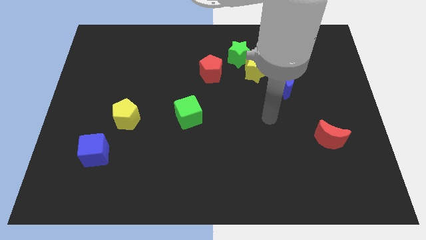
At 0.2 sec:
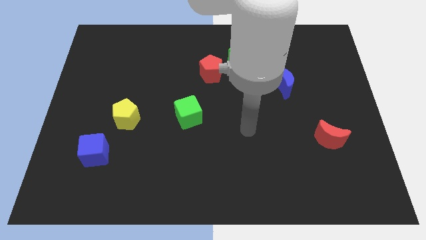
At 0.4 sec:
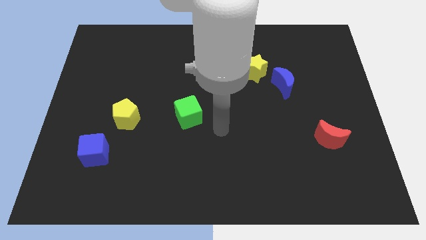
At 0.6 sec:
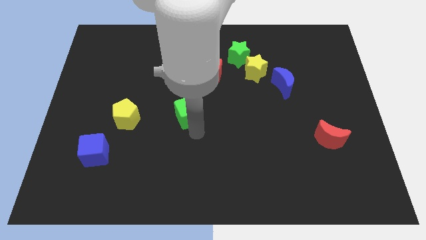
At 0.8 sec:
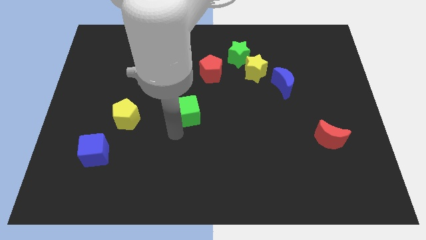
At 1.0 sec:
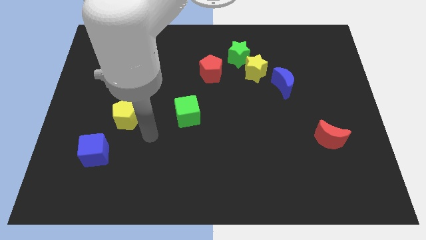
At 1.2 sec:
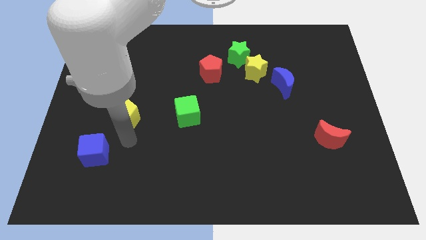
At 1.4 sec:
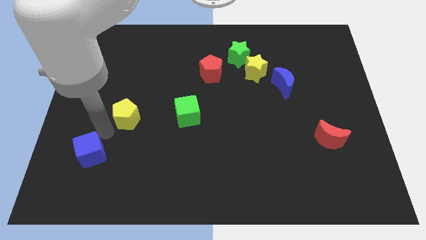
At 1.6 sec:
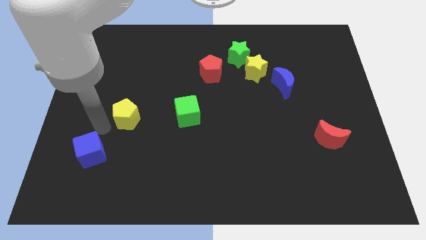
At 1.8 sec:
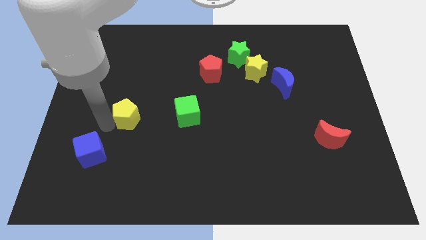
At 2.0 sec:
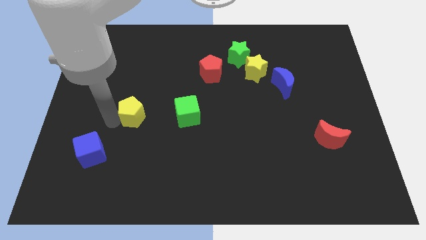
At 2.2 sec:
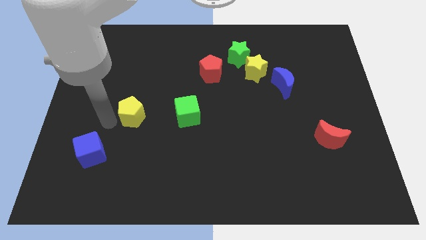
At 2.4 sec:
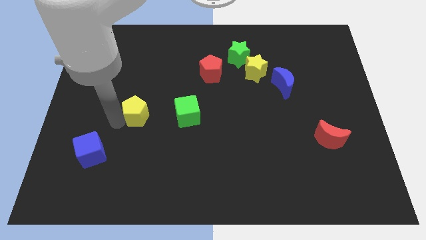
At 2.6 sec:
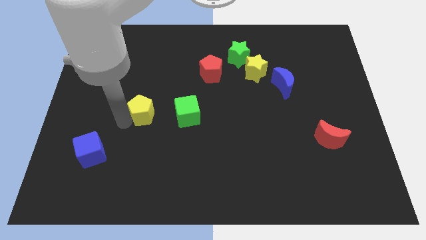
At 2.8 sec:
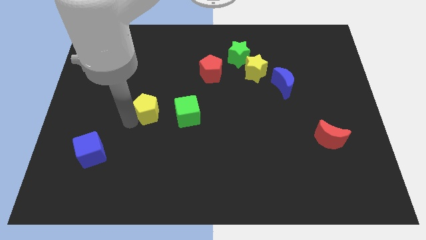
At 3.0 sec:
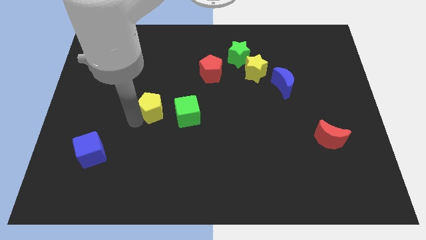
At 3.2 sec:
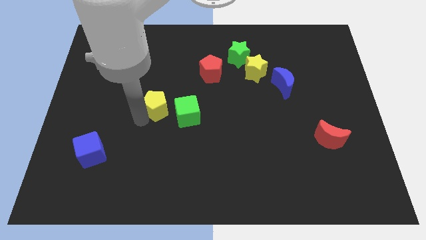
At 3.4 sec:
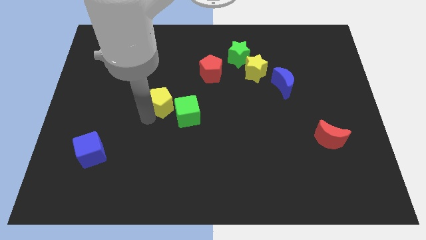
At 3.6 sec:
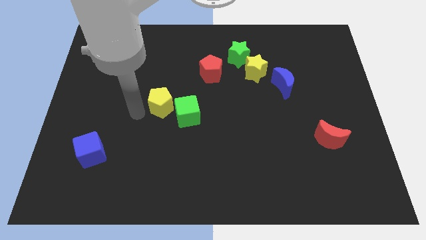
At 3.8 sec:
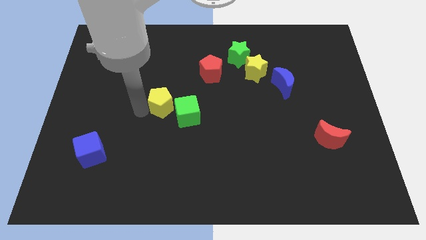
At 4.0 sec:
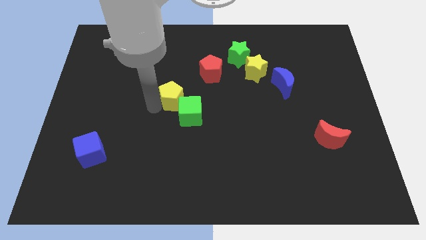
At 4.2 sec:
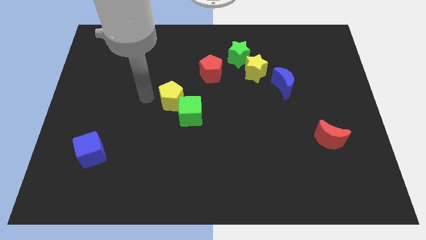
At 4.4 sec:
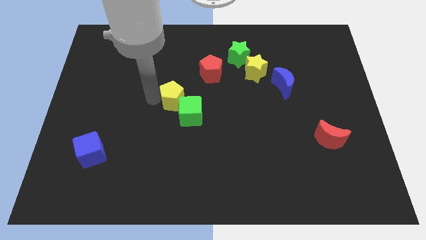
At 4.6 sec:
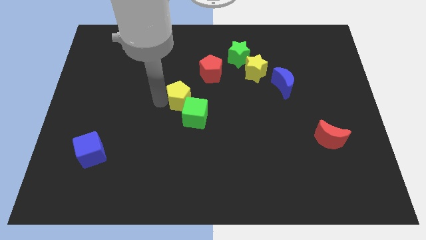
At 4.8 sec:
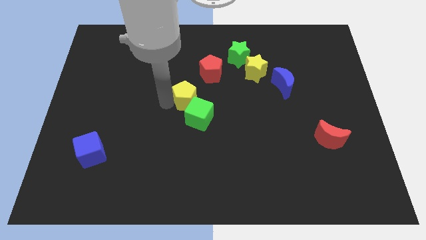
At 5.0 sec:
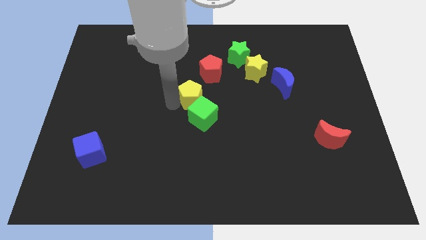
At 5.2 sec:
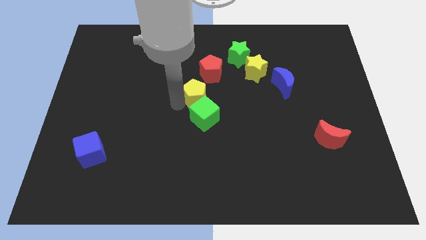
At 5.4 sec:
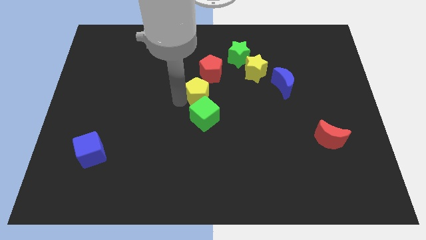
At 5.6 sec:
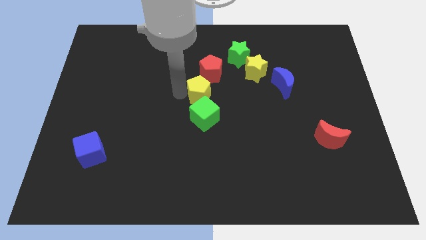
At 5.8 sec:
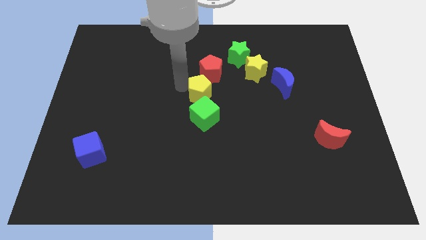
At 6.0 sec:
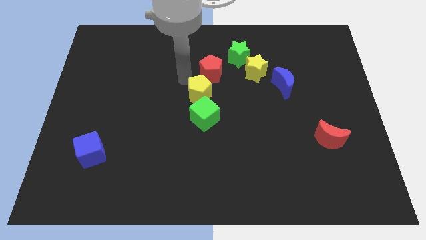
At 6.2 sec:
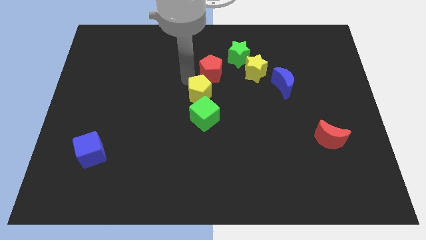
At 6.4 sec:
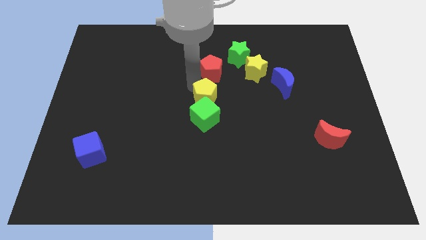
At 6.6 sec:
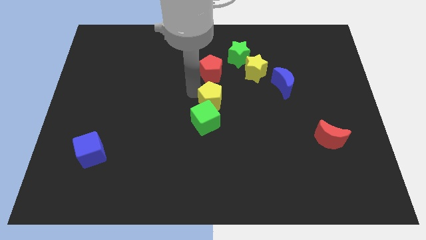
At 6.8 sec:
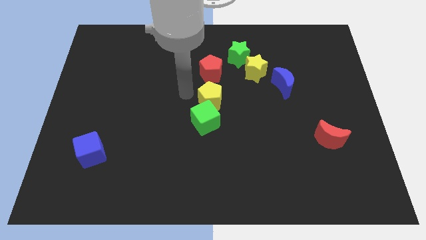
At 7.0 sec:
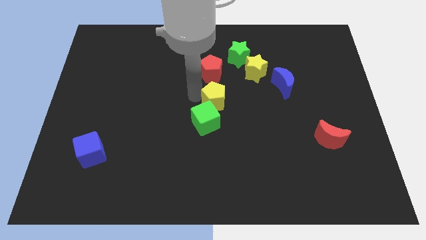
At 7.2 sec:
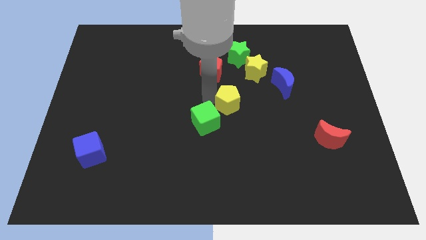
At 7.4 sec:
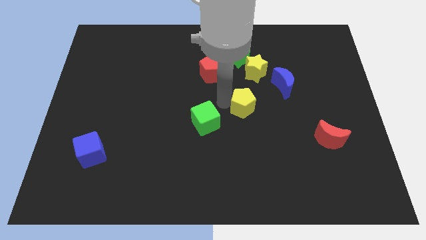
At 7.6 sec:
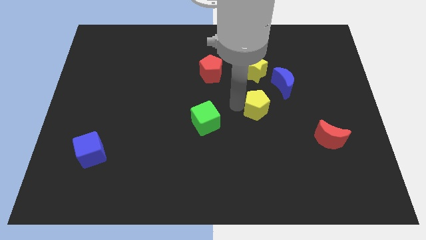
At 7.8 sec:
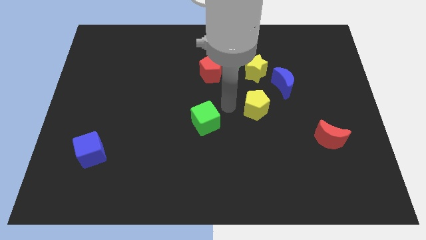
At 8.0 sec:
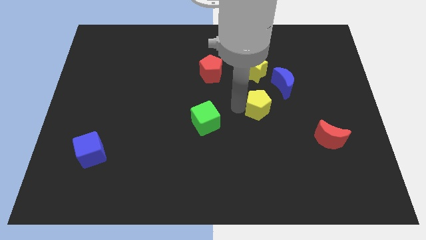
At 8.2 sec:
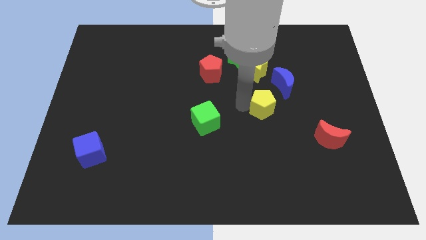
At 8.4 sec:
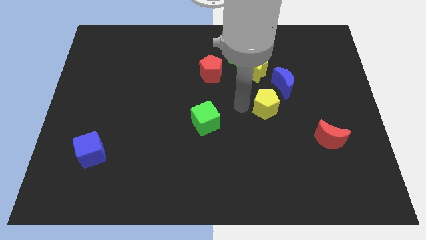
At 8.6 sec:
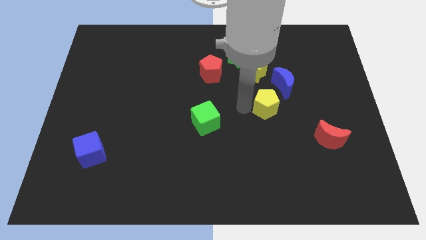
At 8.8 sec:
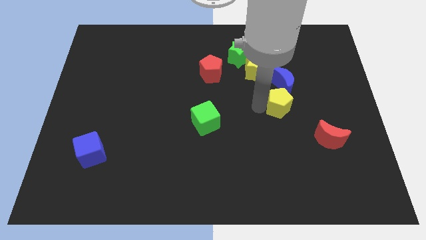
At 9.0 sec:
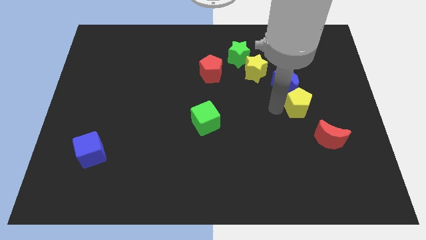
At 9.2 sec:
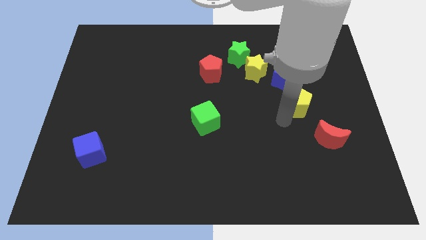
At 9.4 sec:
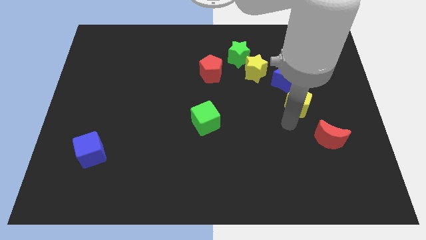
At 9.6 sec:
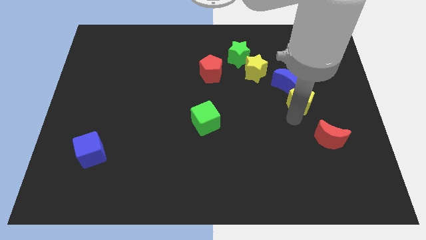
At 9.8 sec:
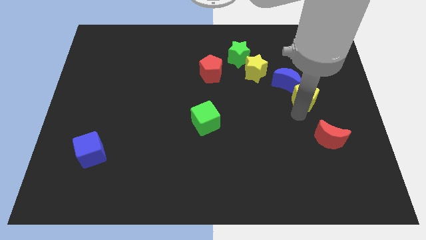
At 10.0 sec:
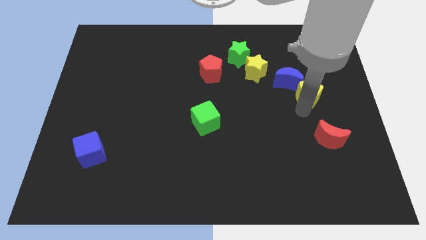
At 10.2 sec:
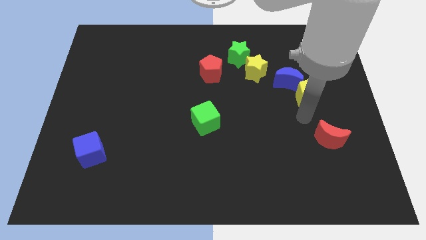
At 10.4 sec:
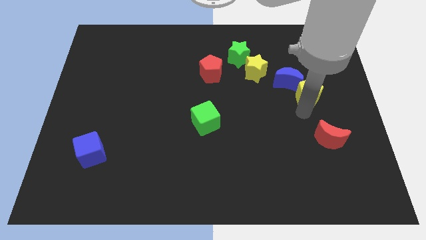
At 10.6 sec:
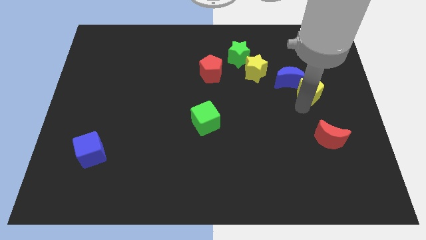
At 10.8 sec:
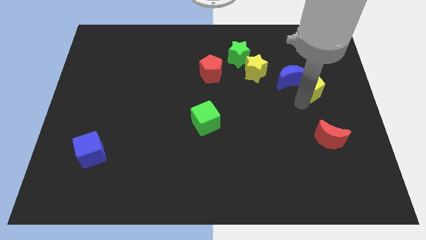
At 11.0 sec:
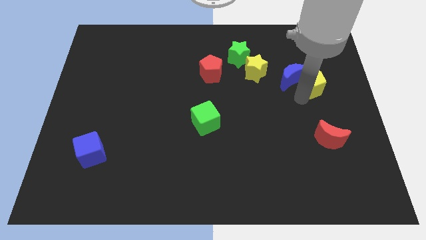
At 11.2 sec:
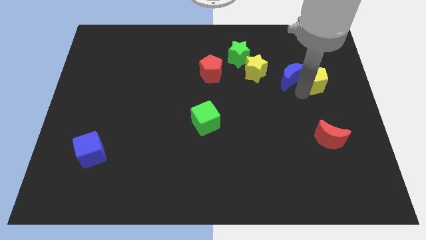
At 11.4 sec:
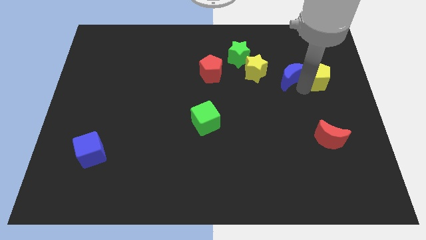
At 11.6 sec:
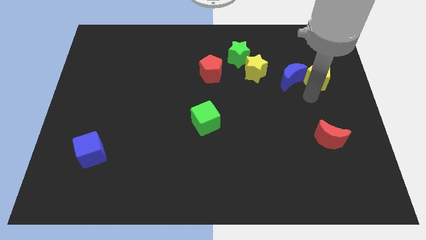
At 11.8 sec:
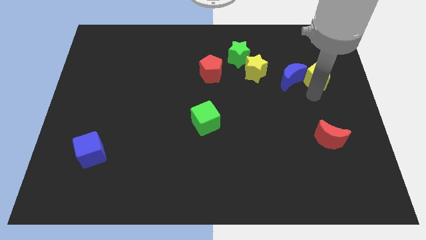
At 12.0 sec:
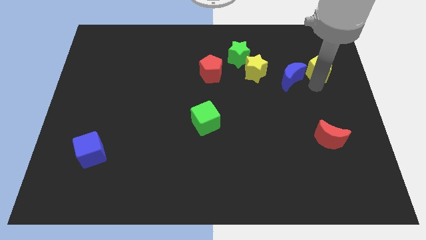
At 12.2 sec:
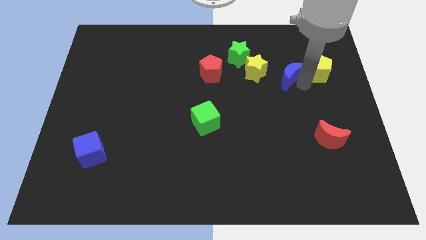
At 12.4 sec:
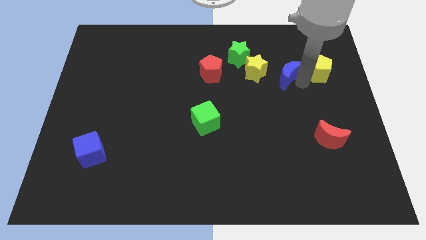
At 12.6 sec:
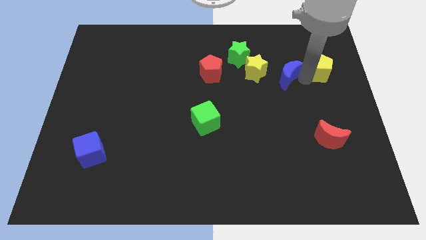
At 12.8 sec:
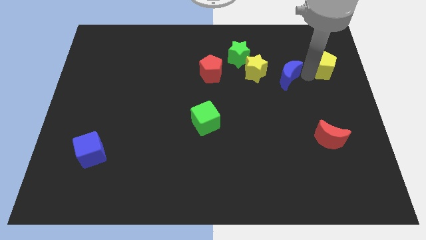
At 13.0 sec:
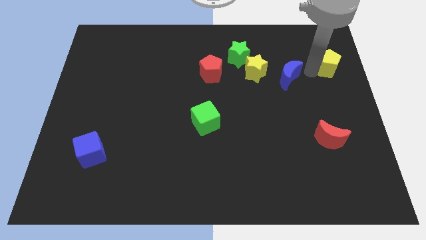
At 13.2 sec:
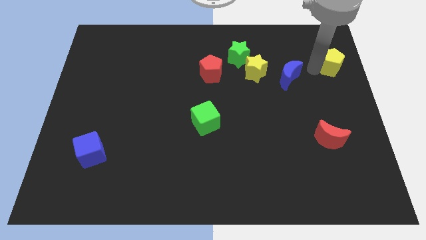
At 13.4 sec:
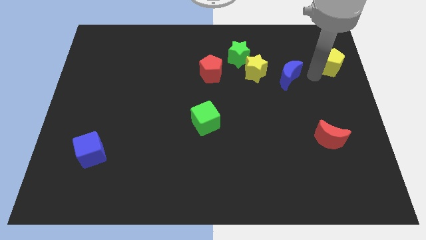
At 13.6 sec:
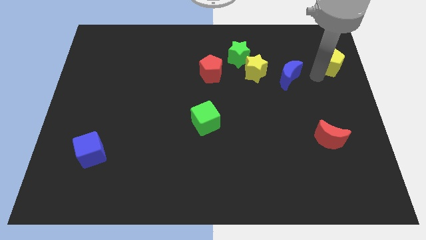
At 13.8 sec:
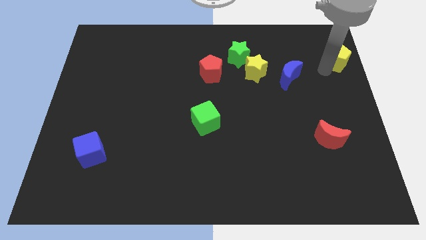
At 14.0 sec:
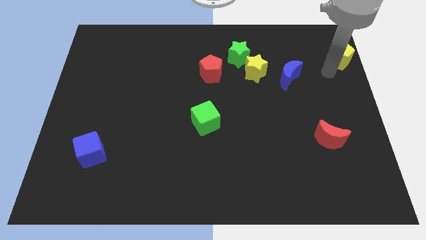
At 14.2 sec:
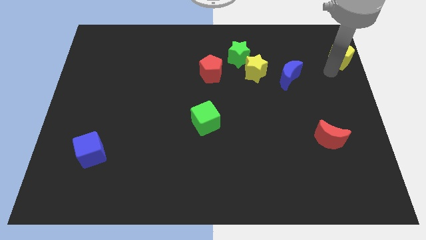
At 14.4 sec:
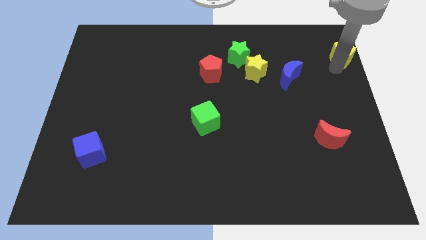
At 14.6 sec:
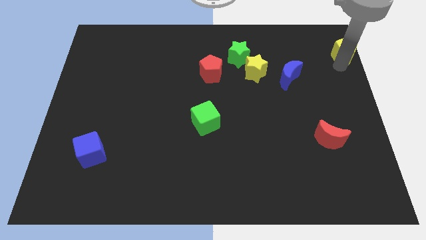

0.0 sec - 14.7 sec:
move the yellow pentagon to the top right corner
